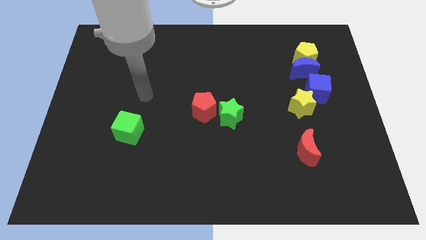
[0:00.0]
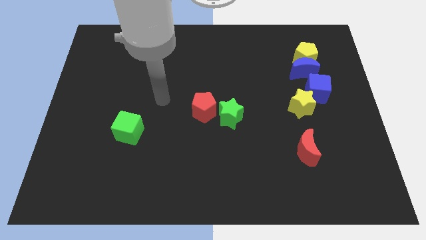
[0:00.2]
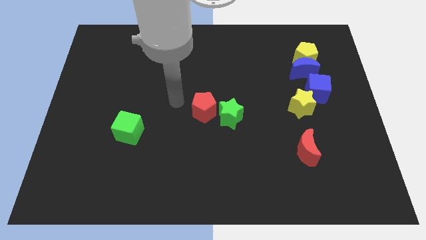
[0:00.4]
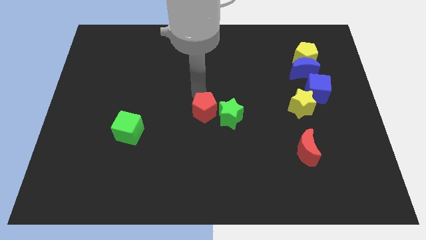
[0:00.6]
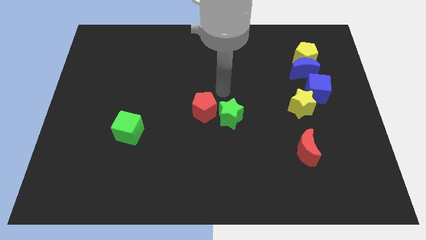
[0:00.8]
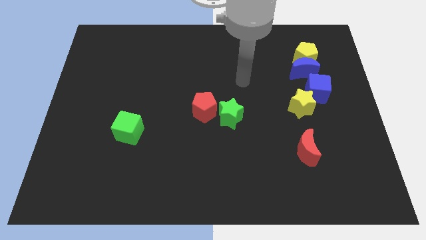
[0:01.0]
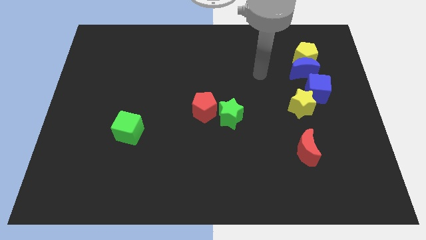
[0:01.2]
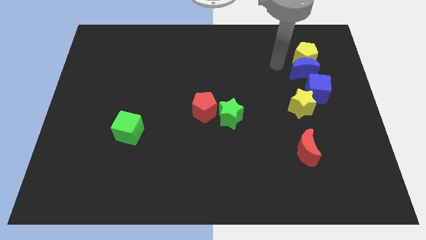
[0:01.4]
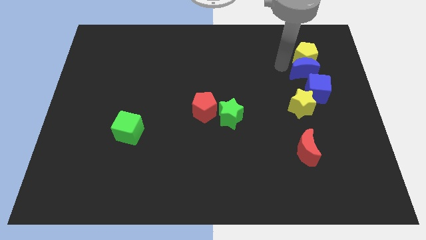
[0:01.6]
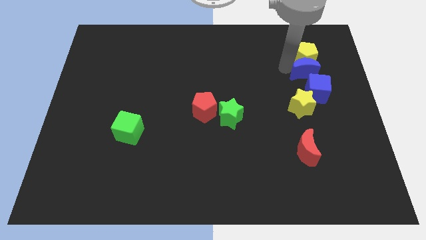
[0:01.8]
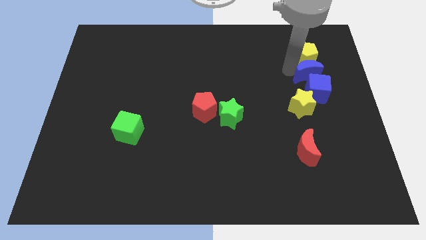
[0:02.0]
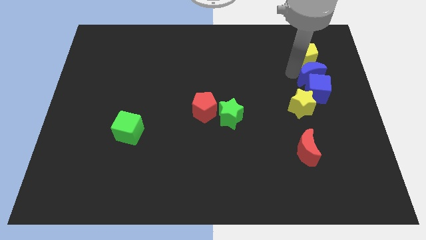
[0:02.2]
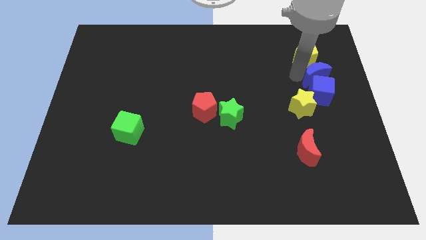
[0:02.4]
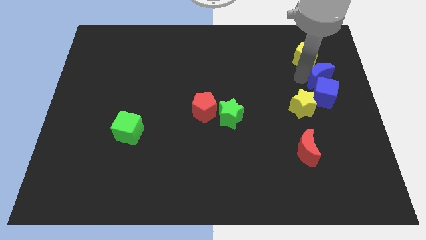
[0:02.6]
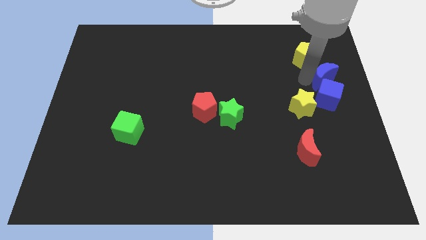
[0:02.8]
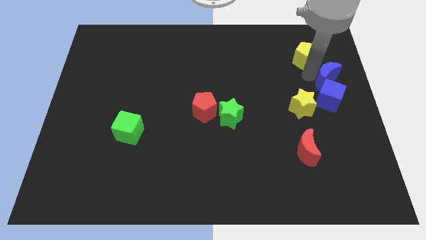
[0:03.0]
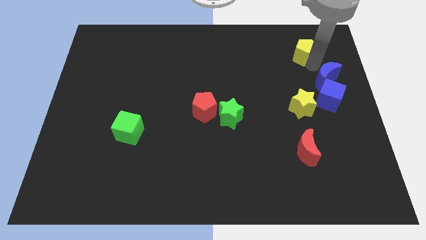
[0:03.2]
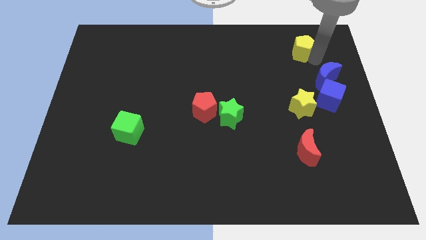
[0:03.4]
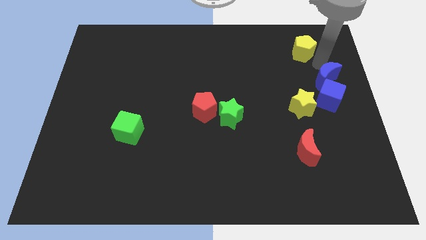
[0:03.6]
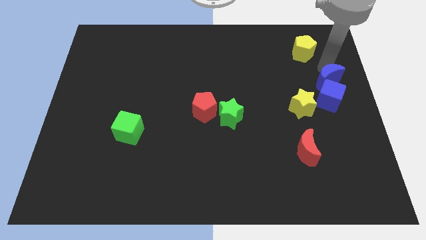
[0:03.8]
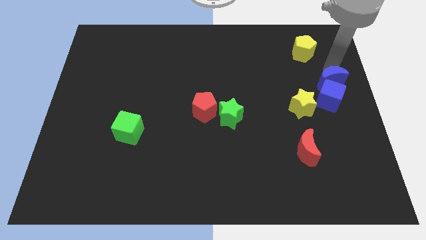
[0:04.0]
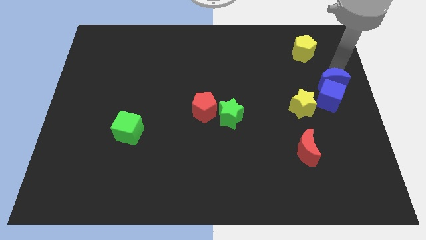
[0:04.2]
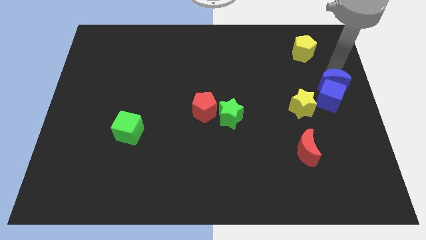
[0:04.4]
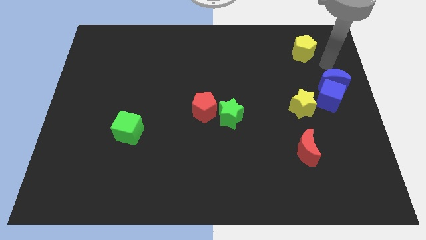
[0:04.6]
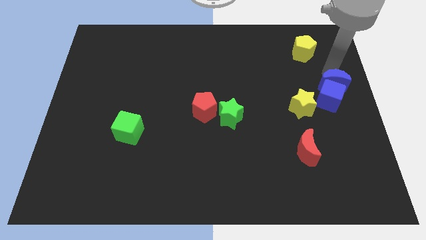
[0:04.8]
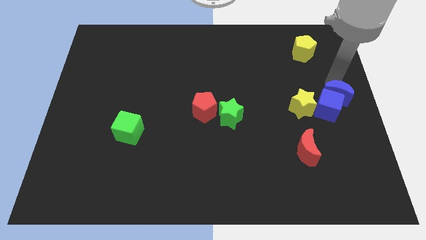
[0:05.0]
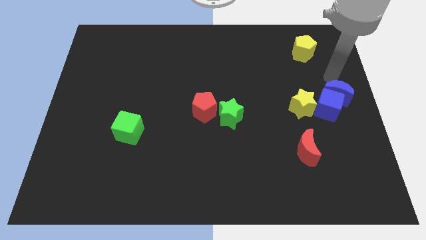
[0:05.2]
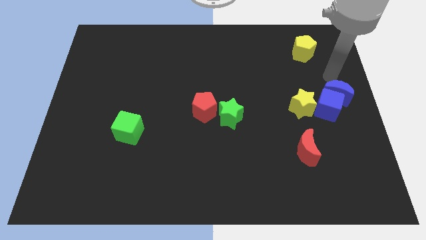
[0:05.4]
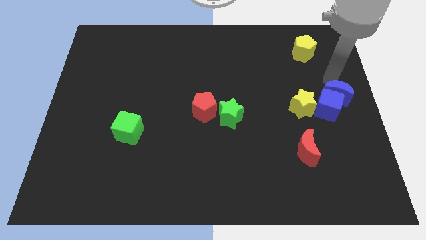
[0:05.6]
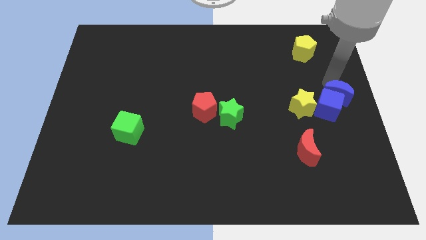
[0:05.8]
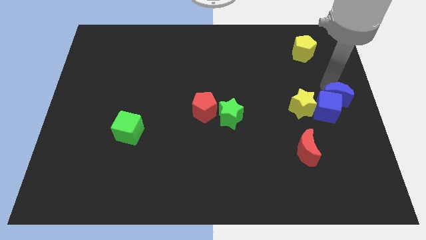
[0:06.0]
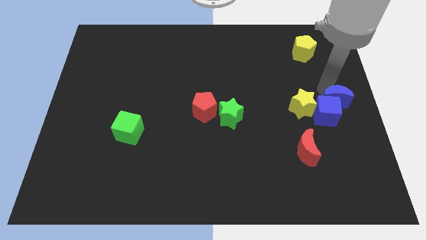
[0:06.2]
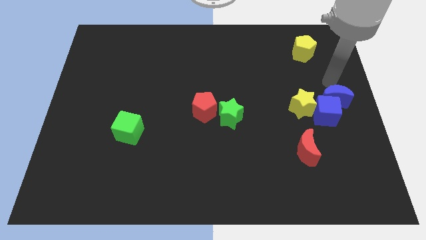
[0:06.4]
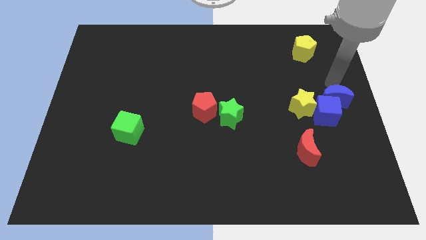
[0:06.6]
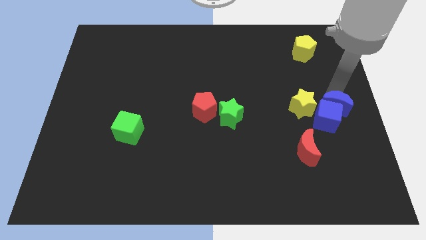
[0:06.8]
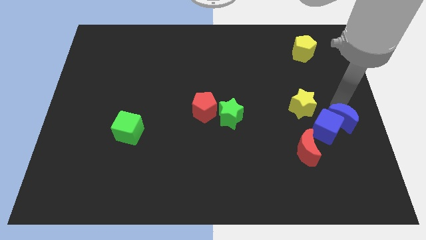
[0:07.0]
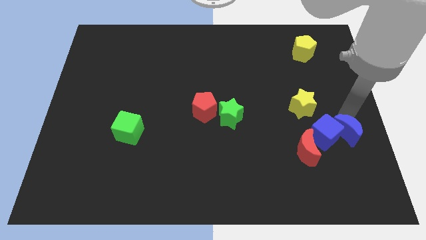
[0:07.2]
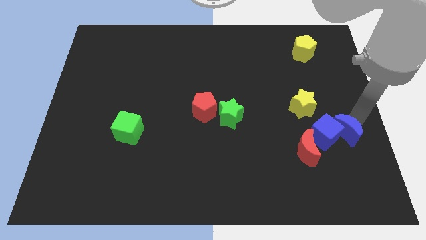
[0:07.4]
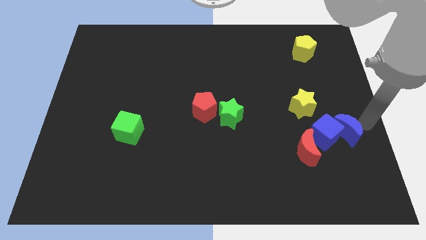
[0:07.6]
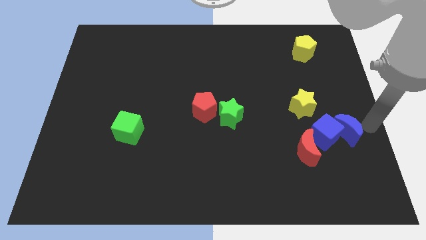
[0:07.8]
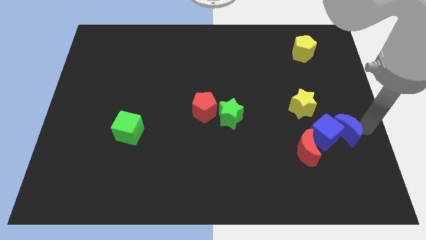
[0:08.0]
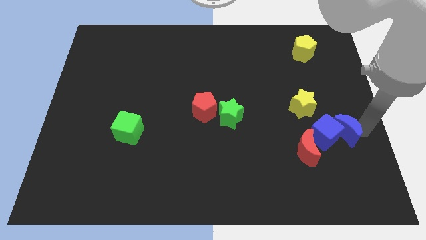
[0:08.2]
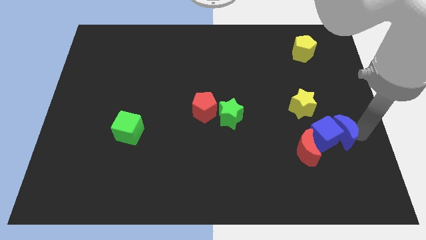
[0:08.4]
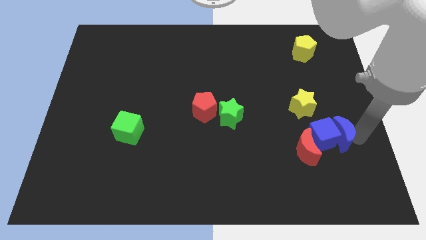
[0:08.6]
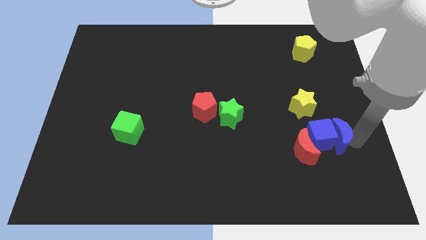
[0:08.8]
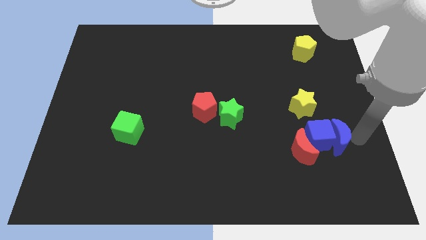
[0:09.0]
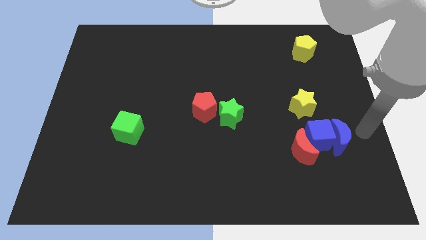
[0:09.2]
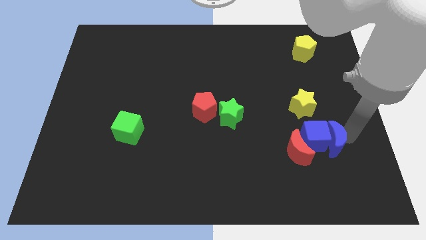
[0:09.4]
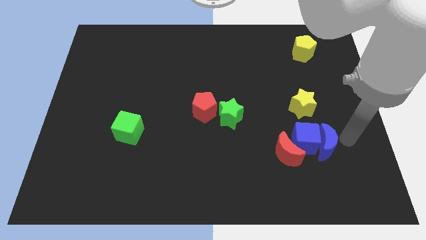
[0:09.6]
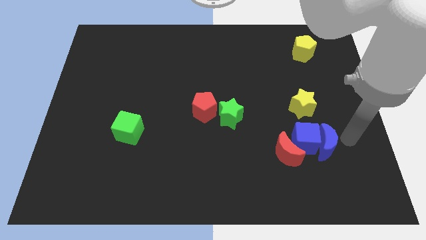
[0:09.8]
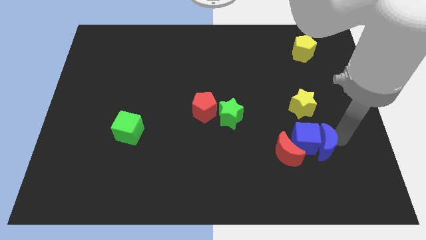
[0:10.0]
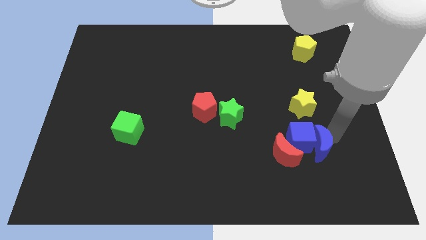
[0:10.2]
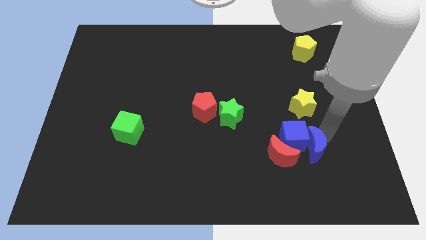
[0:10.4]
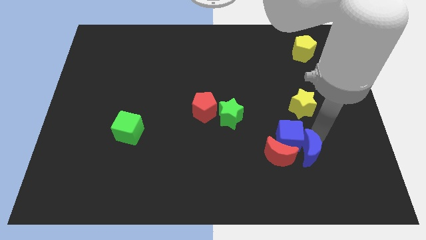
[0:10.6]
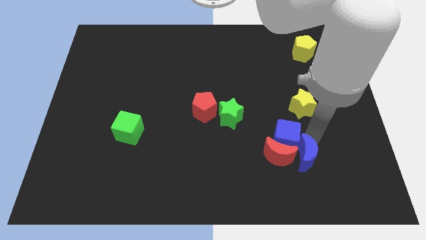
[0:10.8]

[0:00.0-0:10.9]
push the blue moon towards the red moon

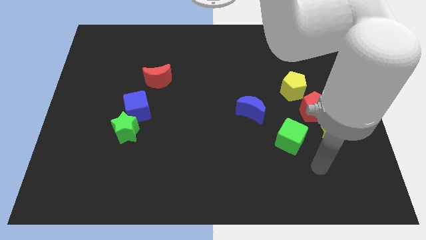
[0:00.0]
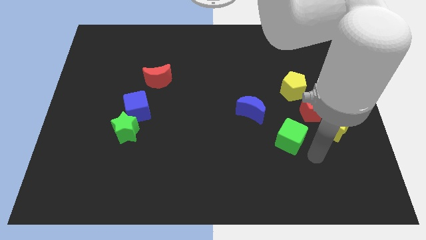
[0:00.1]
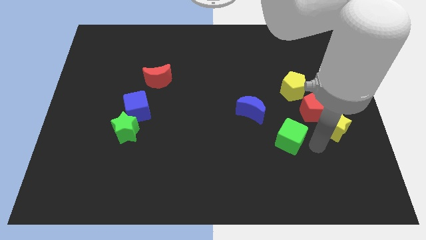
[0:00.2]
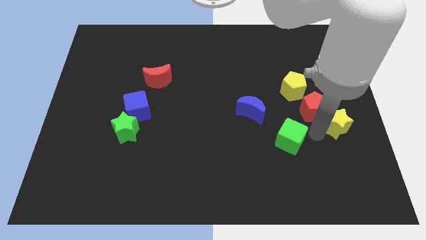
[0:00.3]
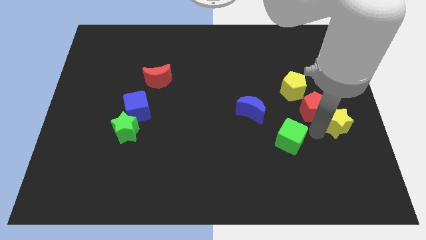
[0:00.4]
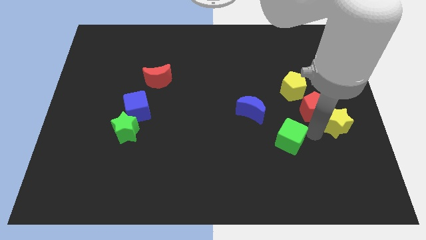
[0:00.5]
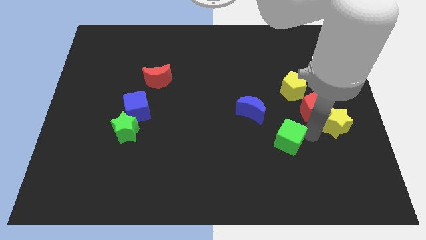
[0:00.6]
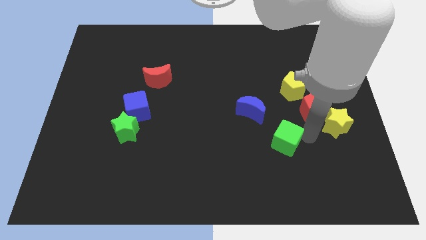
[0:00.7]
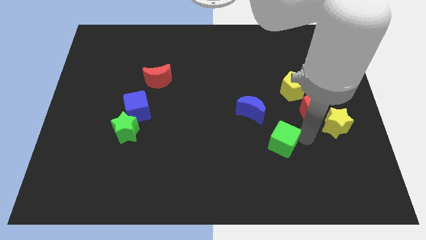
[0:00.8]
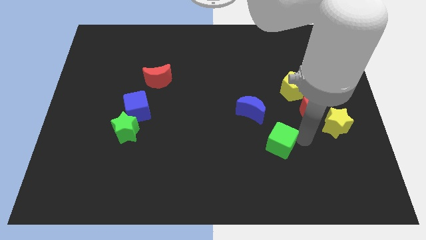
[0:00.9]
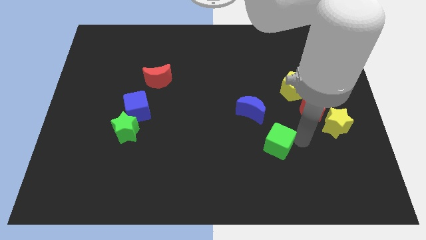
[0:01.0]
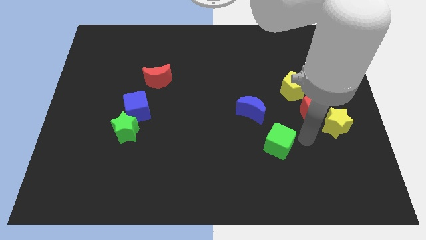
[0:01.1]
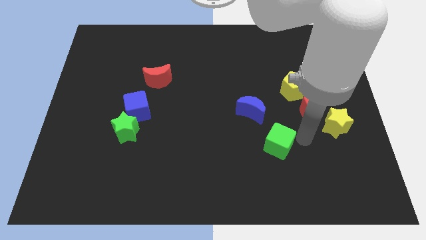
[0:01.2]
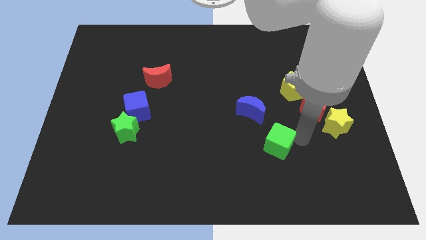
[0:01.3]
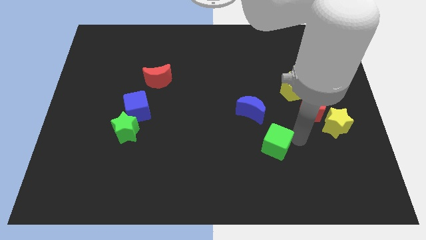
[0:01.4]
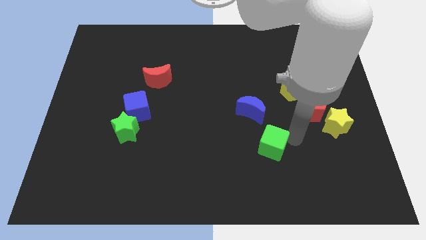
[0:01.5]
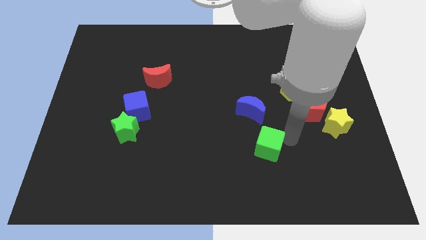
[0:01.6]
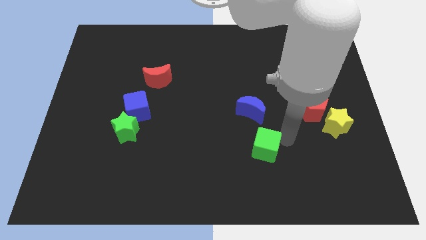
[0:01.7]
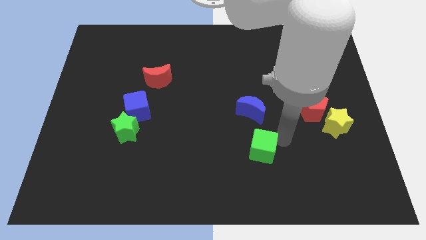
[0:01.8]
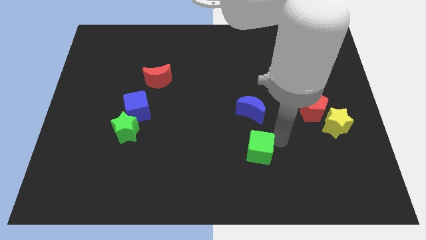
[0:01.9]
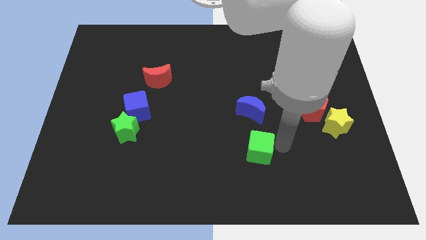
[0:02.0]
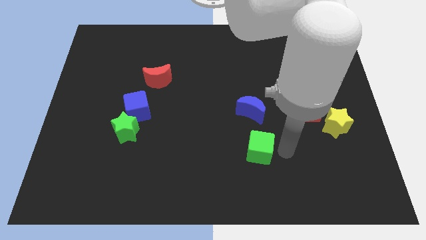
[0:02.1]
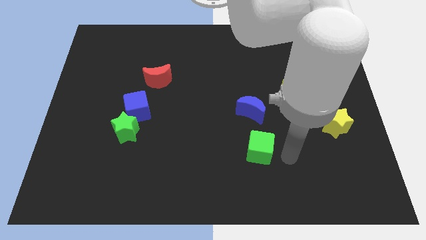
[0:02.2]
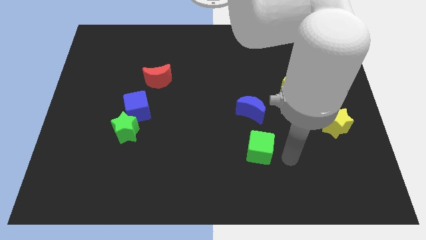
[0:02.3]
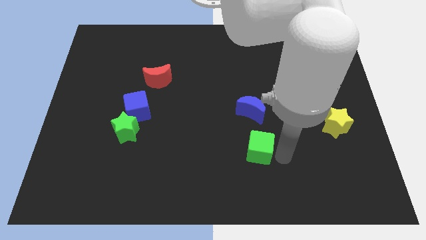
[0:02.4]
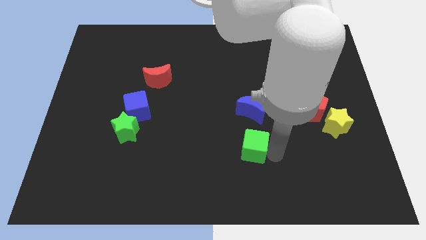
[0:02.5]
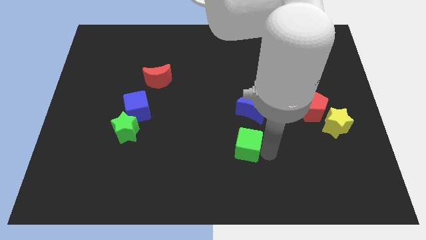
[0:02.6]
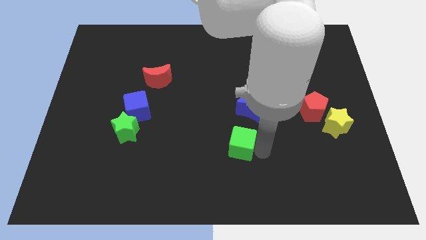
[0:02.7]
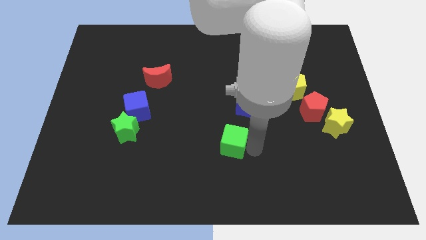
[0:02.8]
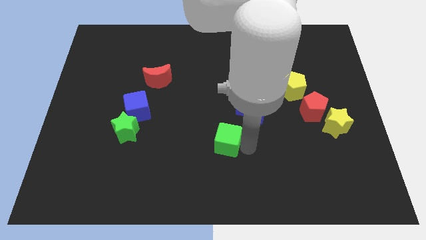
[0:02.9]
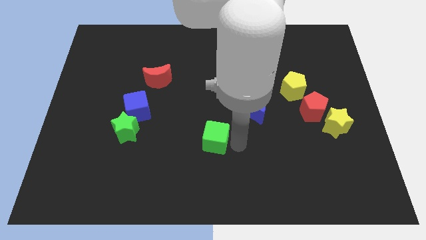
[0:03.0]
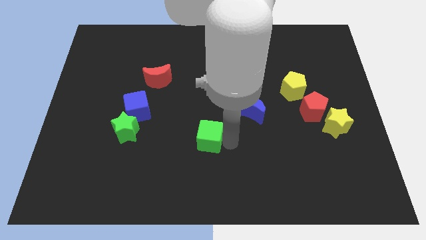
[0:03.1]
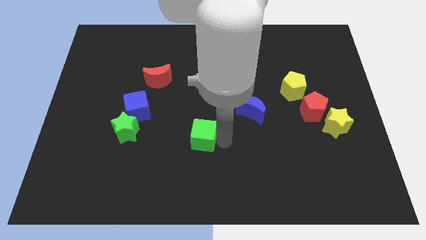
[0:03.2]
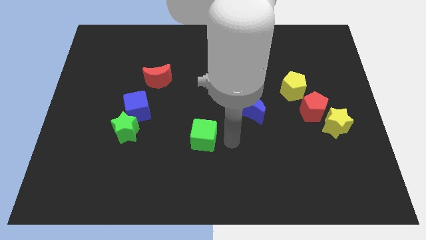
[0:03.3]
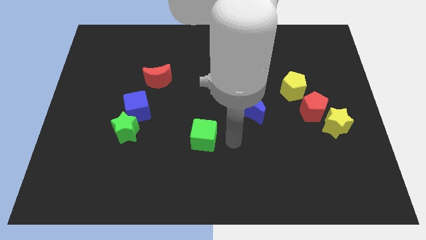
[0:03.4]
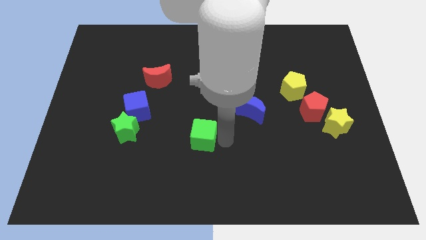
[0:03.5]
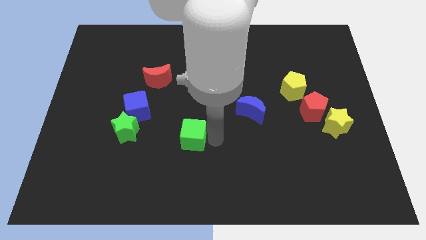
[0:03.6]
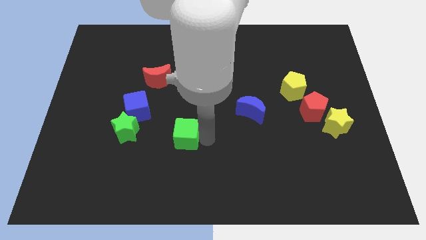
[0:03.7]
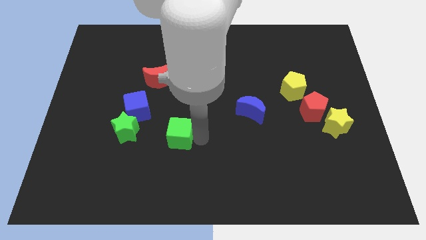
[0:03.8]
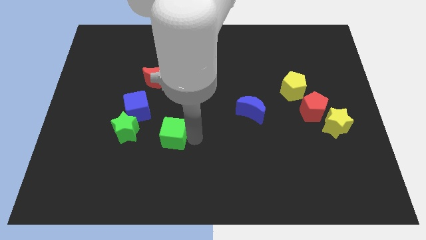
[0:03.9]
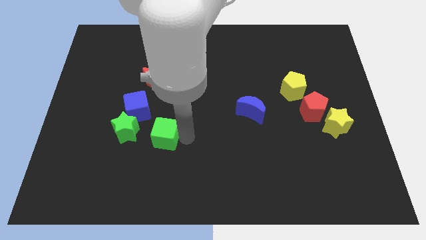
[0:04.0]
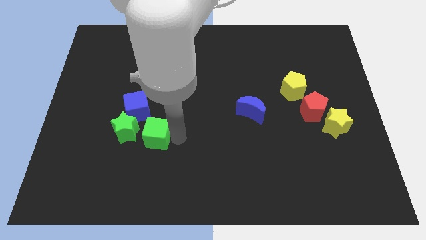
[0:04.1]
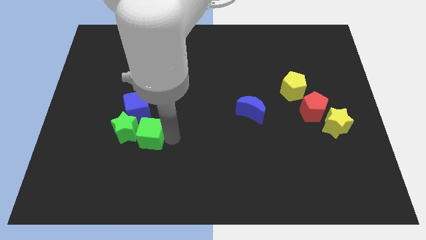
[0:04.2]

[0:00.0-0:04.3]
move the green cube to the green star
